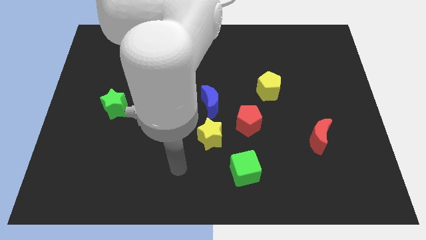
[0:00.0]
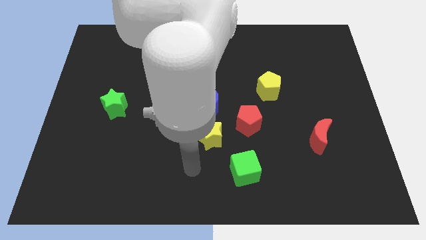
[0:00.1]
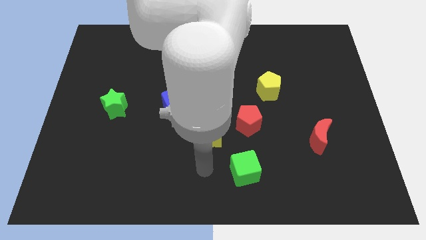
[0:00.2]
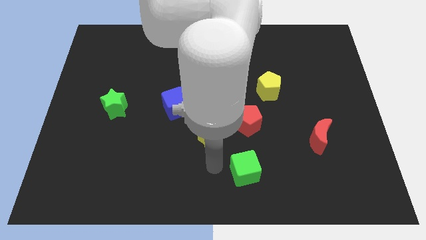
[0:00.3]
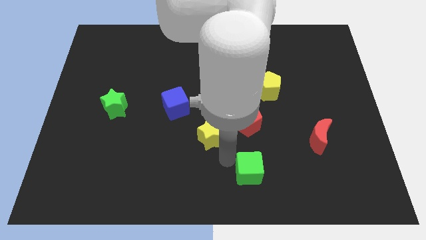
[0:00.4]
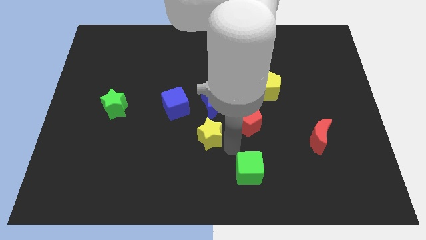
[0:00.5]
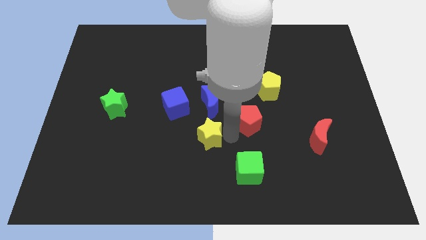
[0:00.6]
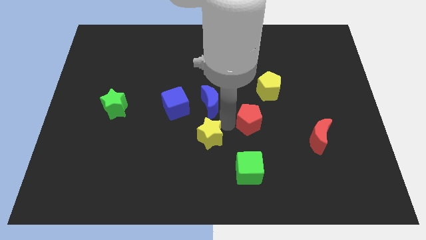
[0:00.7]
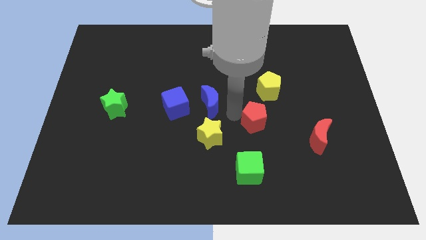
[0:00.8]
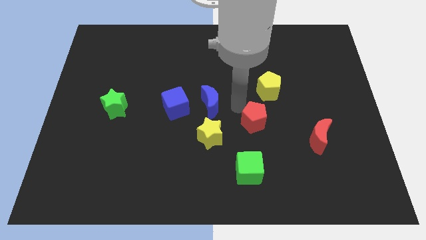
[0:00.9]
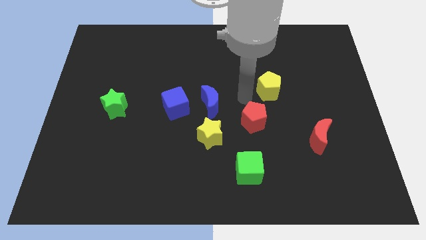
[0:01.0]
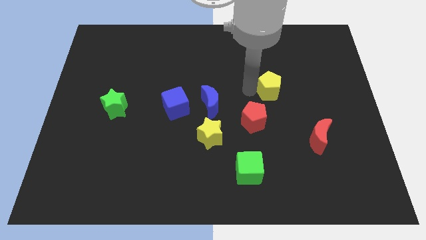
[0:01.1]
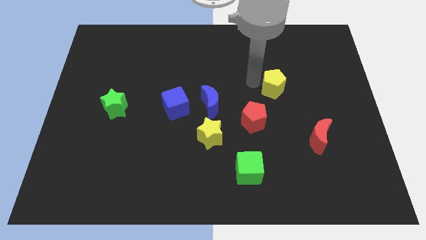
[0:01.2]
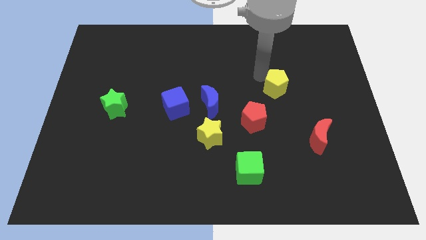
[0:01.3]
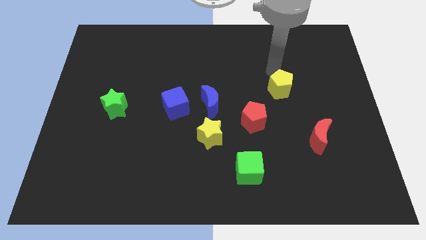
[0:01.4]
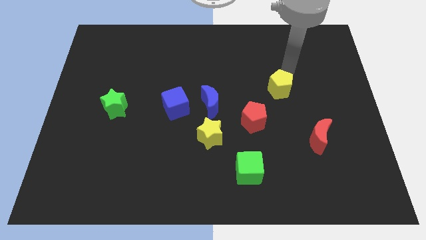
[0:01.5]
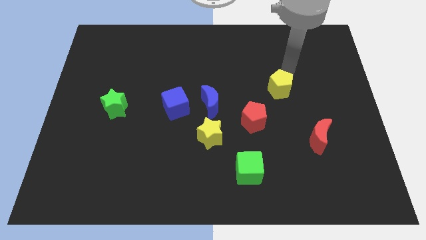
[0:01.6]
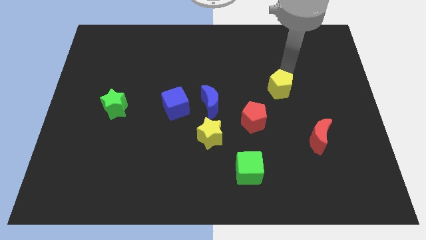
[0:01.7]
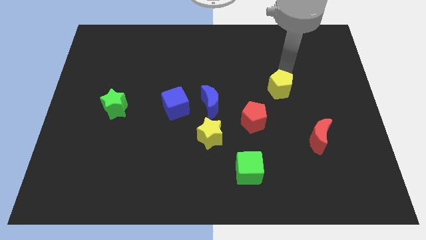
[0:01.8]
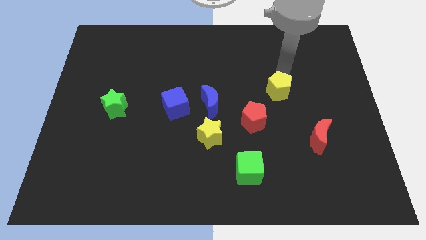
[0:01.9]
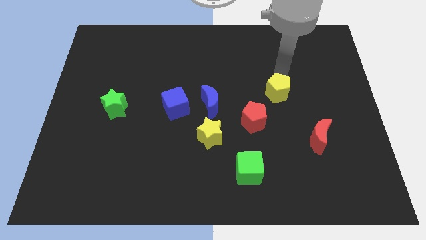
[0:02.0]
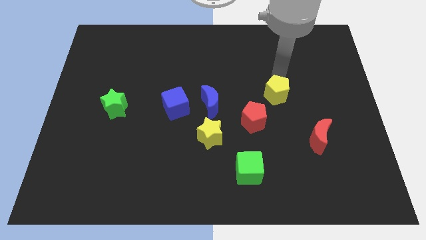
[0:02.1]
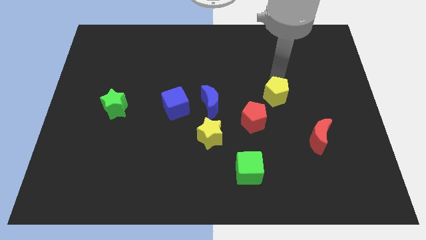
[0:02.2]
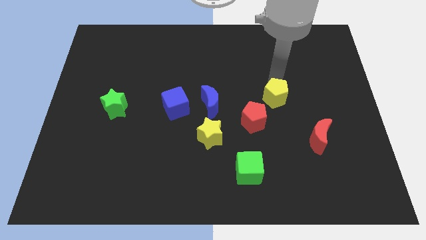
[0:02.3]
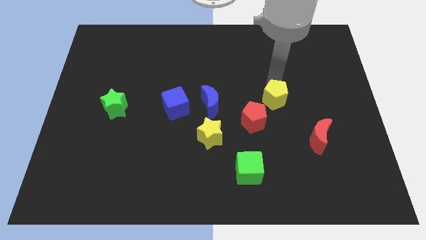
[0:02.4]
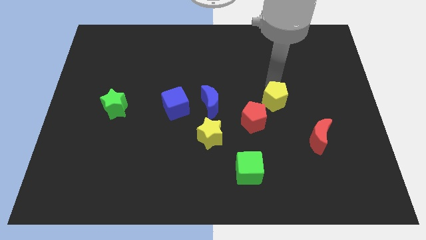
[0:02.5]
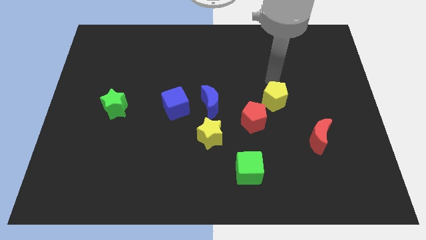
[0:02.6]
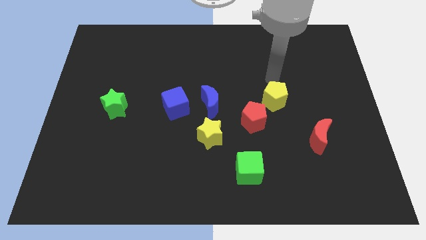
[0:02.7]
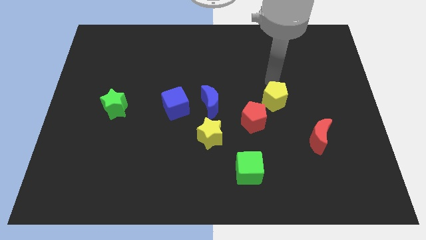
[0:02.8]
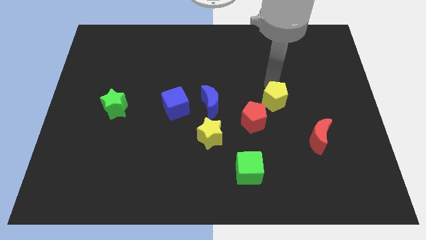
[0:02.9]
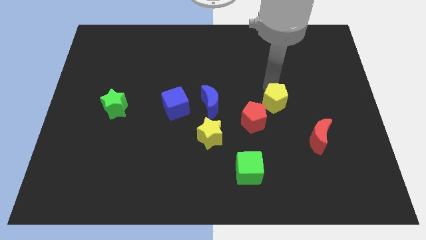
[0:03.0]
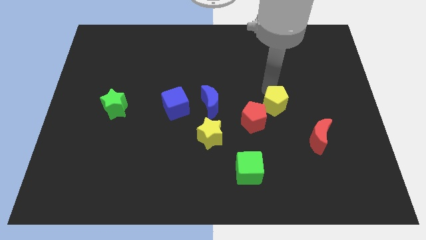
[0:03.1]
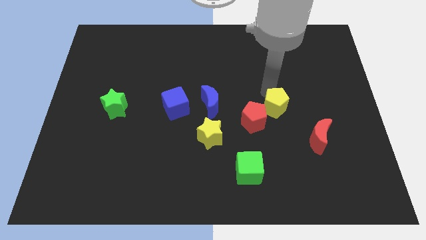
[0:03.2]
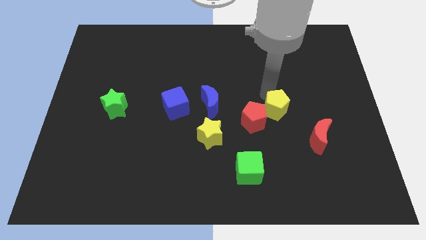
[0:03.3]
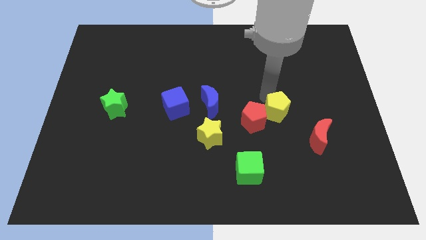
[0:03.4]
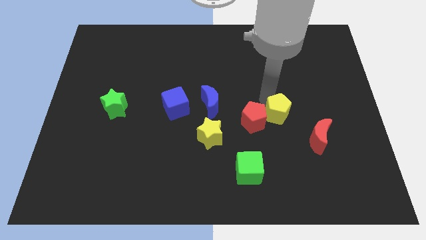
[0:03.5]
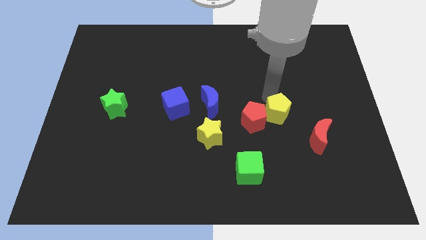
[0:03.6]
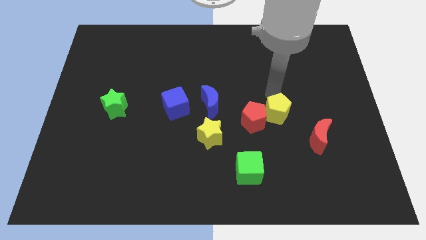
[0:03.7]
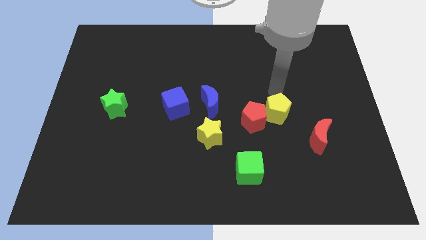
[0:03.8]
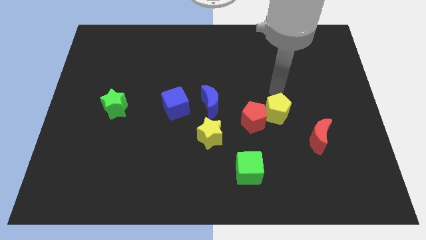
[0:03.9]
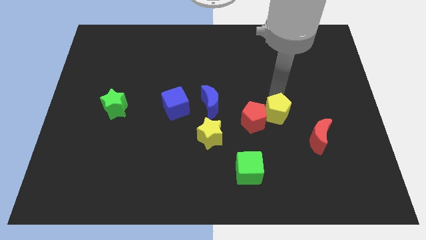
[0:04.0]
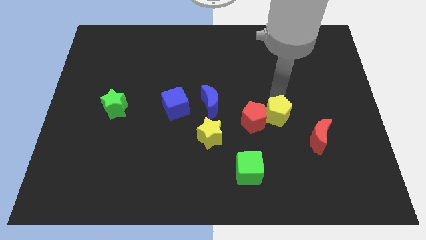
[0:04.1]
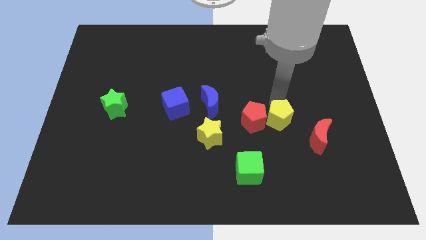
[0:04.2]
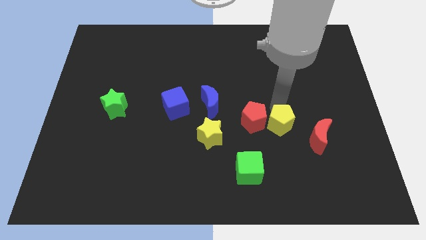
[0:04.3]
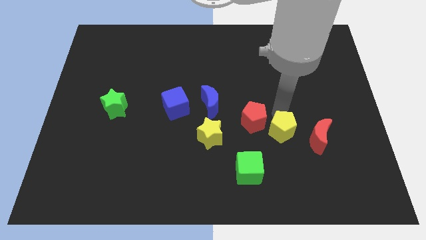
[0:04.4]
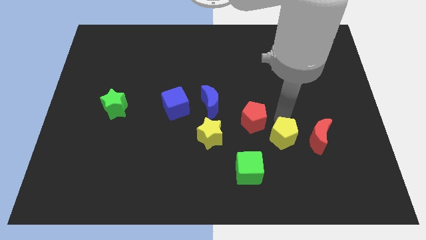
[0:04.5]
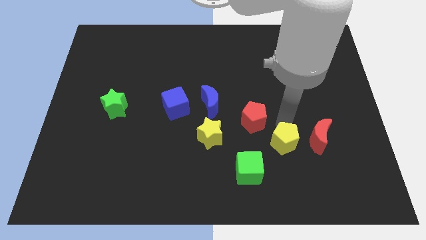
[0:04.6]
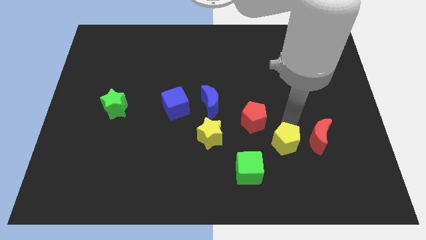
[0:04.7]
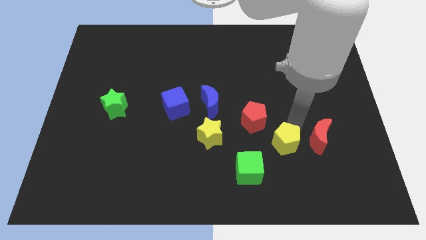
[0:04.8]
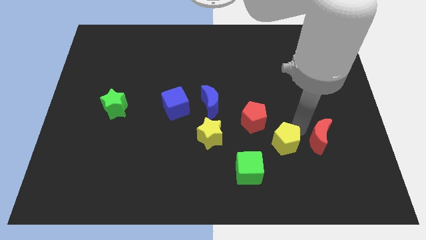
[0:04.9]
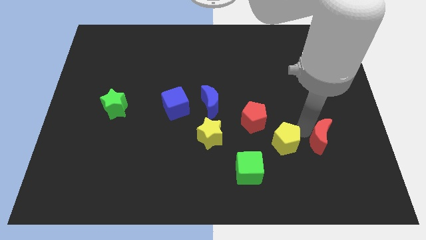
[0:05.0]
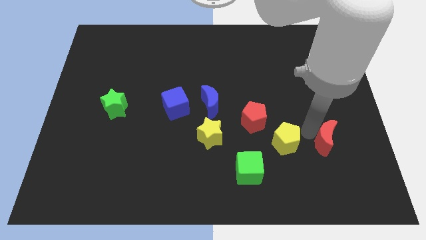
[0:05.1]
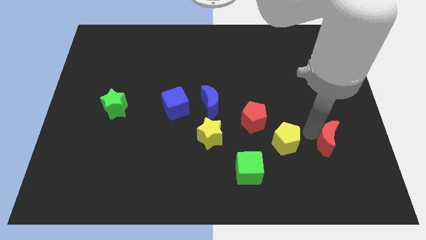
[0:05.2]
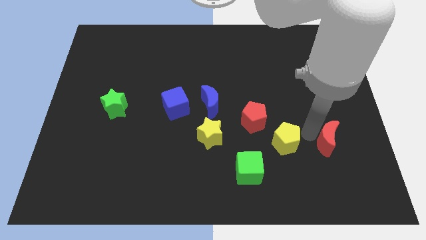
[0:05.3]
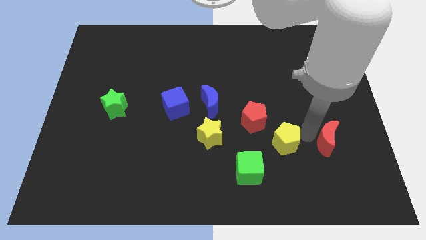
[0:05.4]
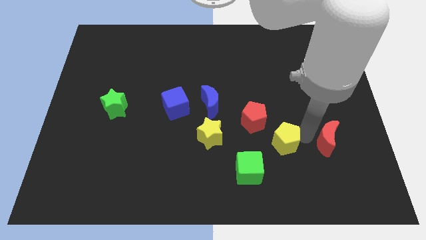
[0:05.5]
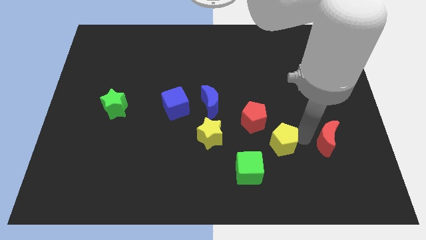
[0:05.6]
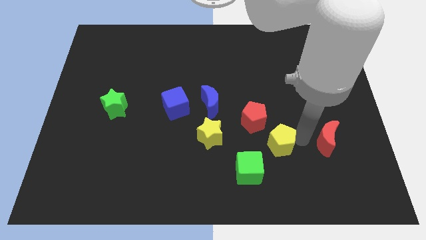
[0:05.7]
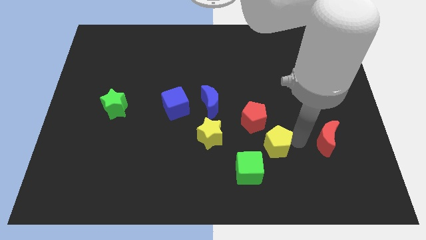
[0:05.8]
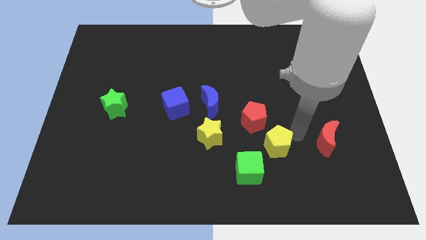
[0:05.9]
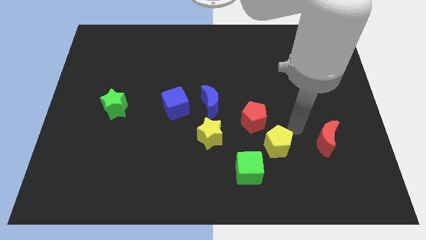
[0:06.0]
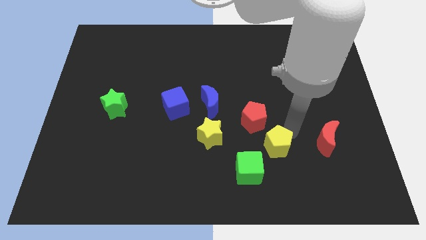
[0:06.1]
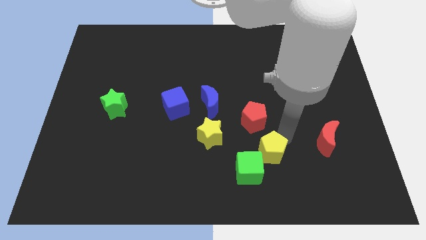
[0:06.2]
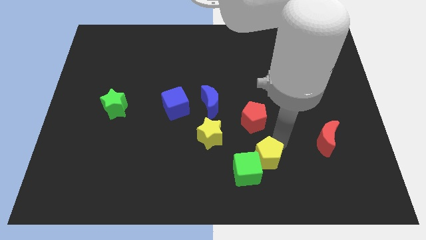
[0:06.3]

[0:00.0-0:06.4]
put the yellow pentagon next to the green cube
